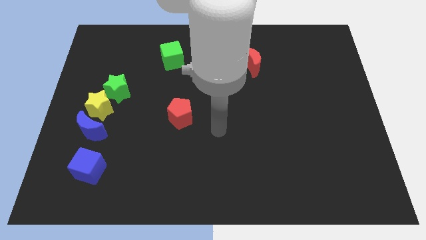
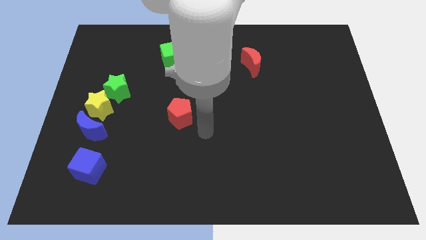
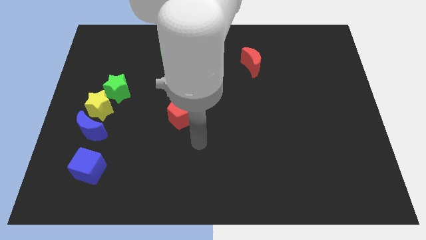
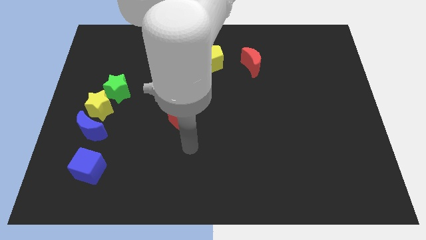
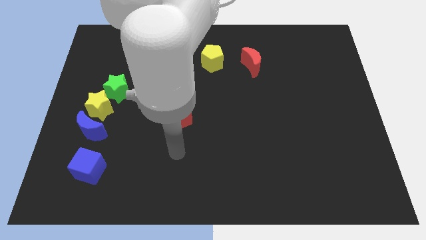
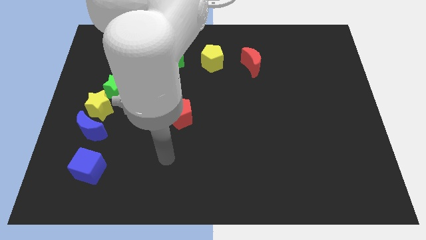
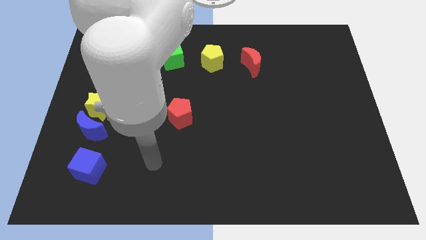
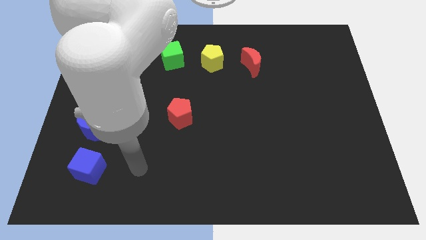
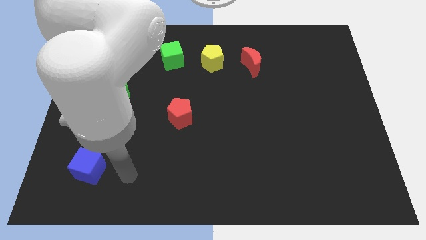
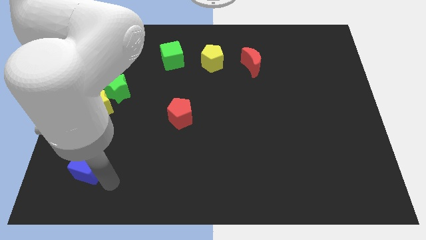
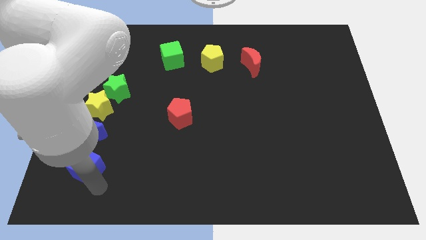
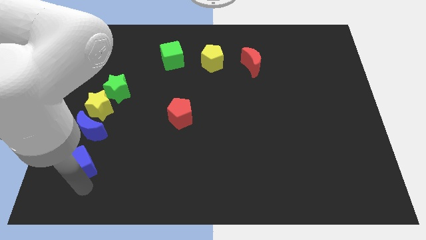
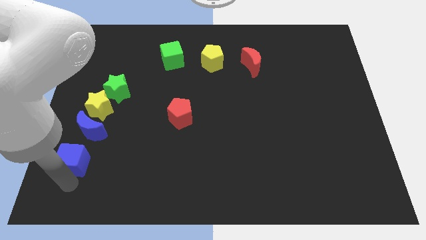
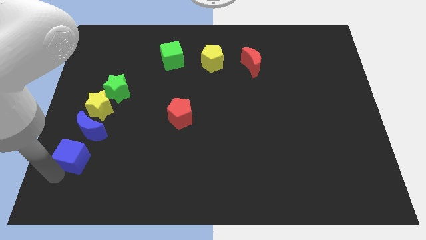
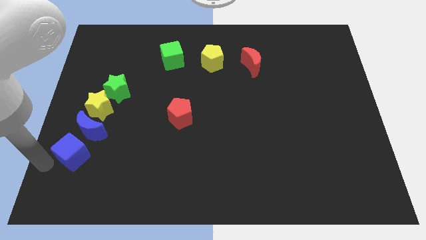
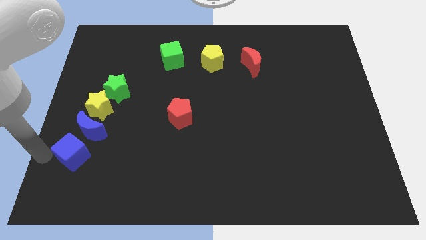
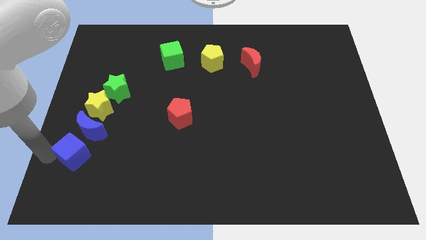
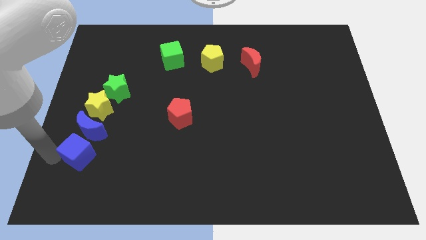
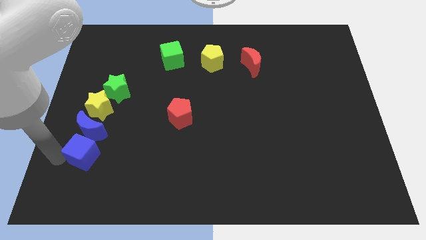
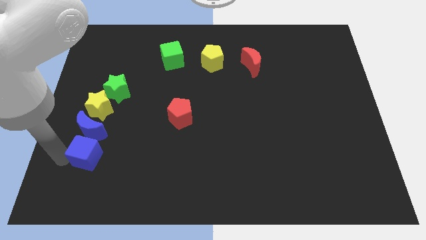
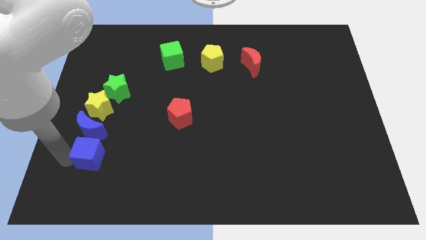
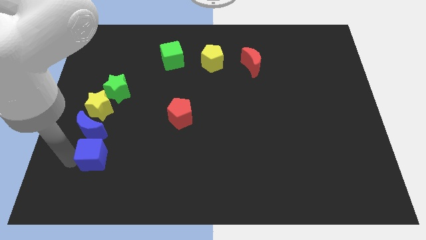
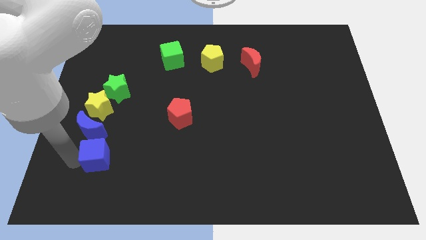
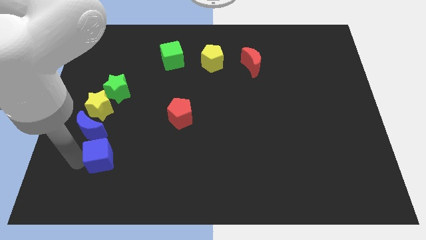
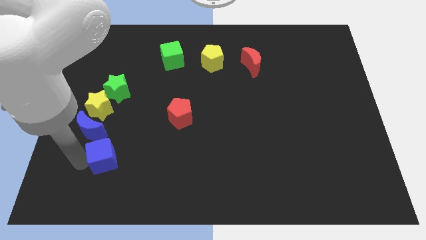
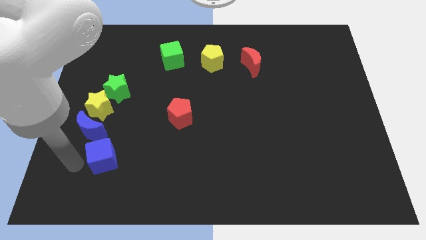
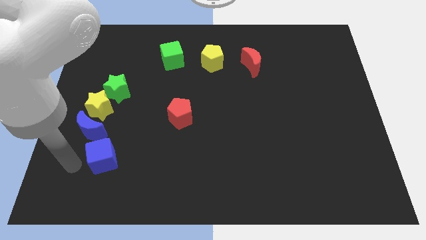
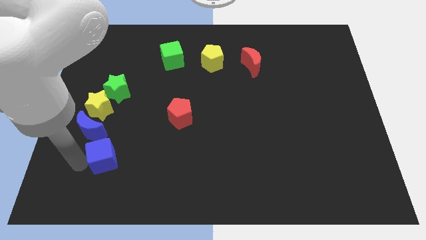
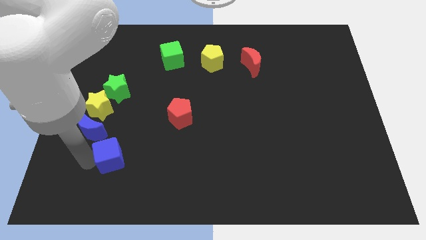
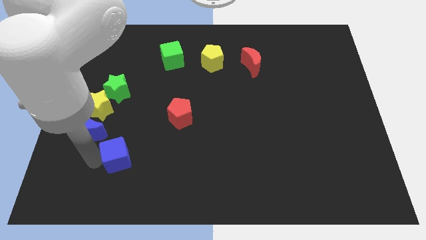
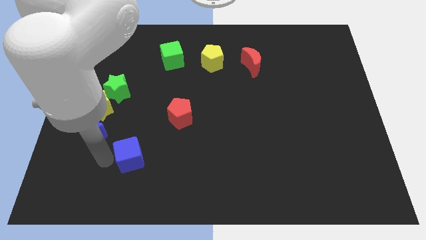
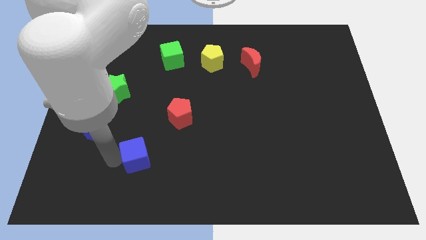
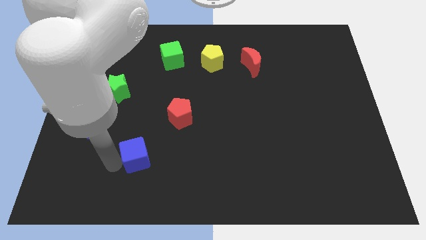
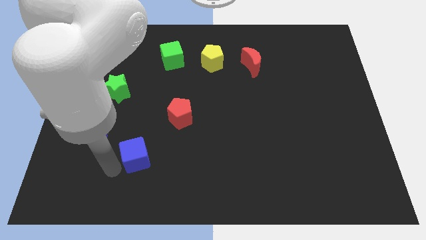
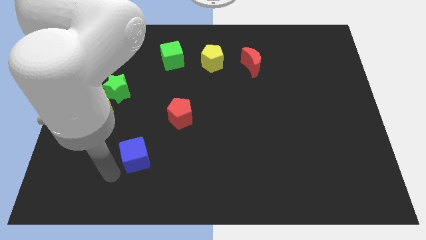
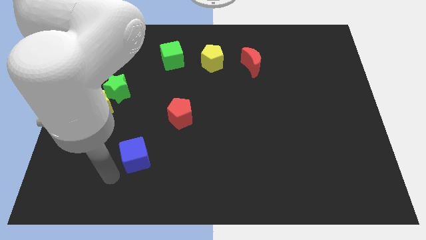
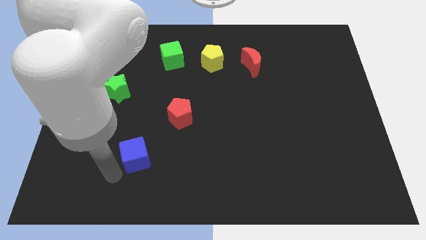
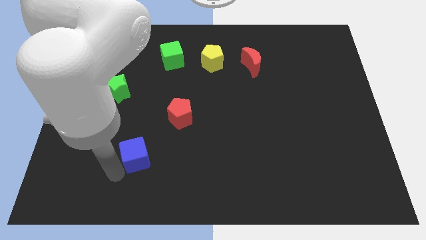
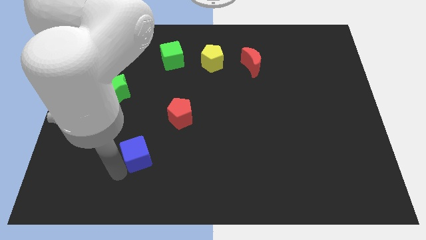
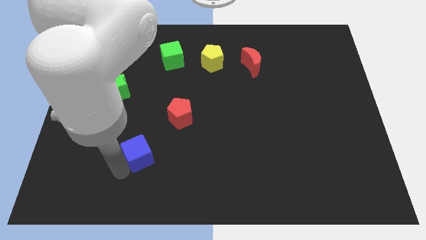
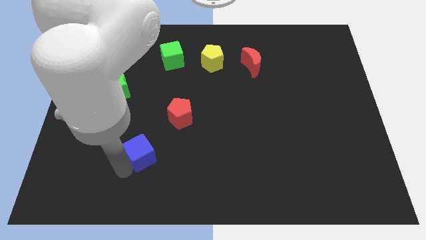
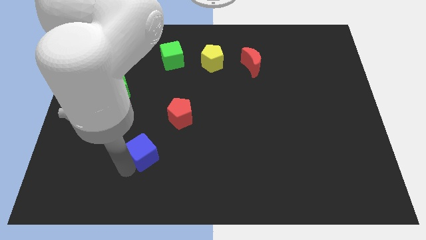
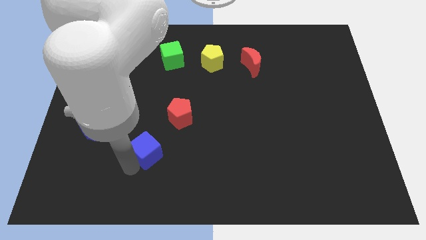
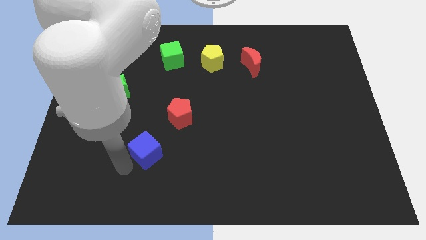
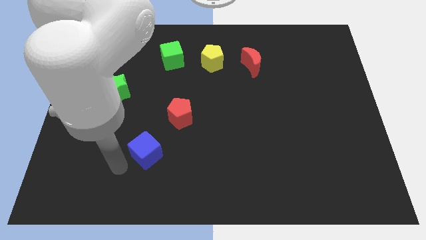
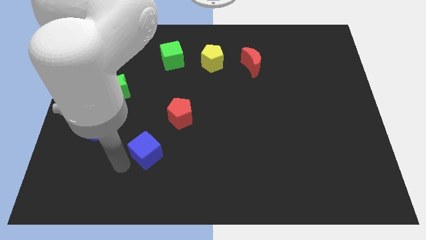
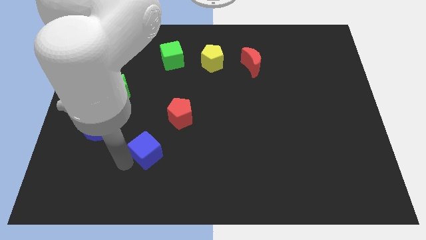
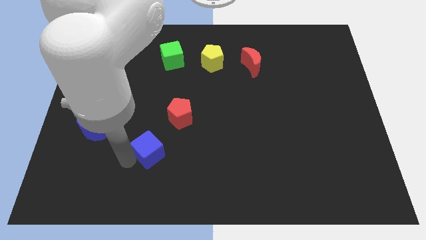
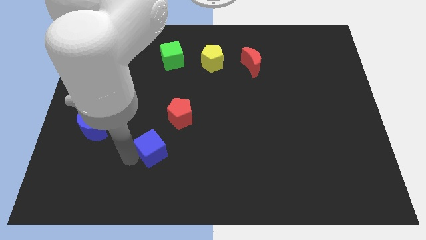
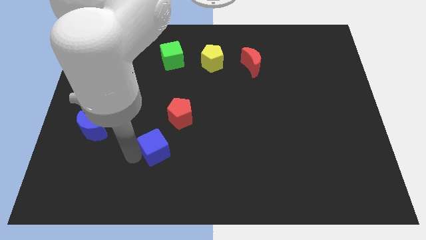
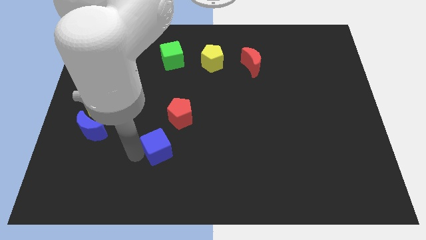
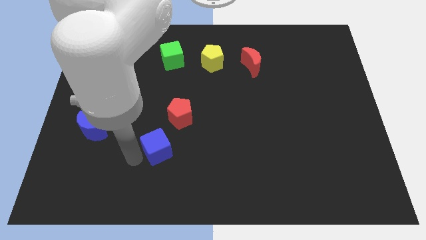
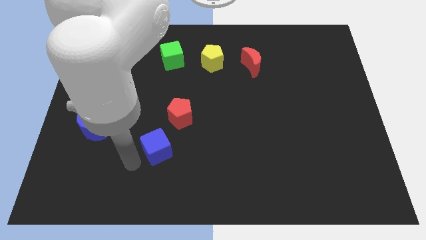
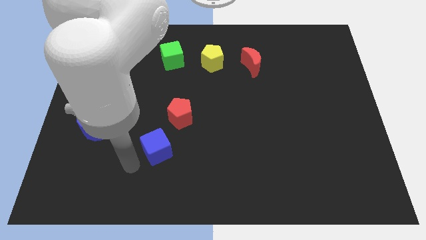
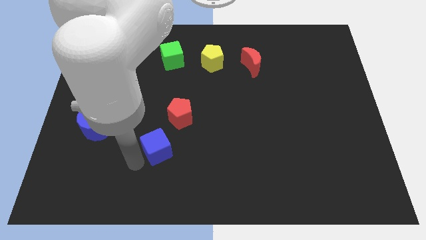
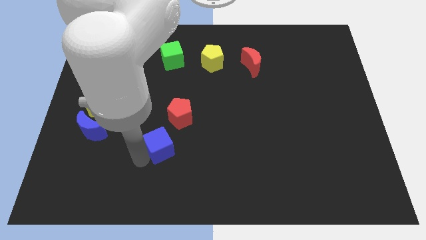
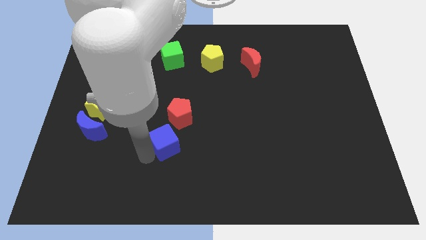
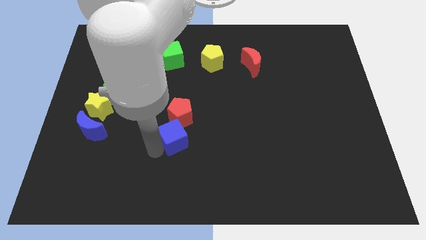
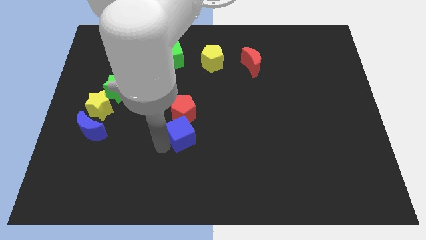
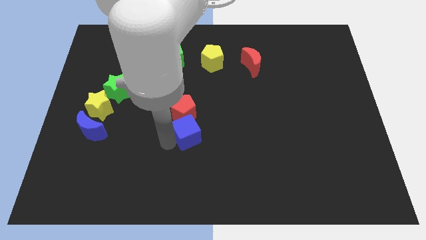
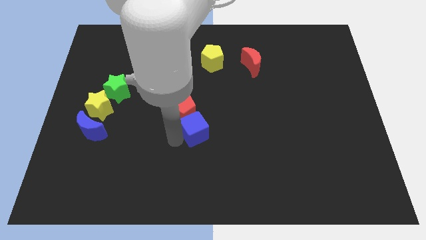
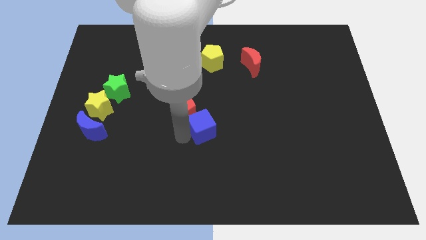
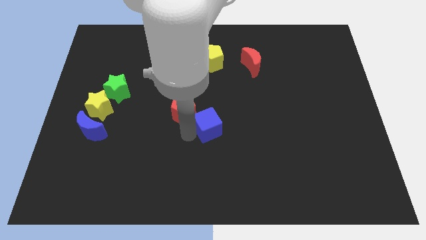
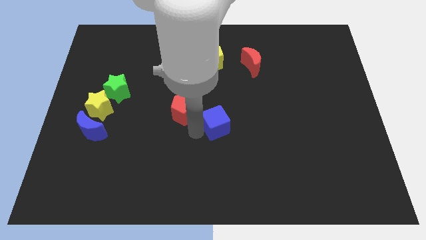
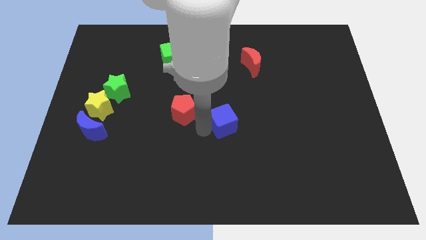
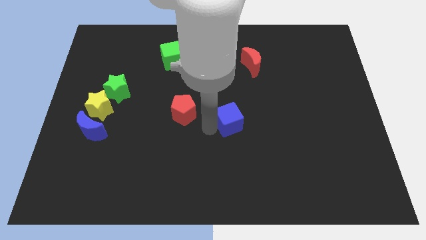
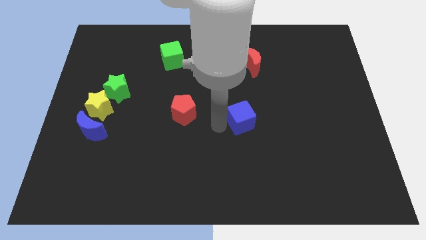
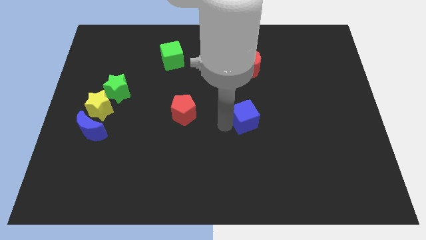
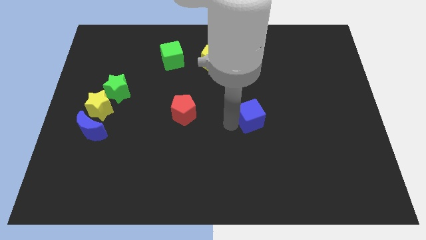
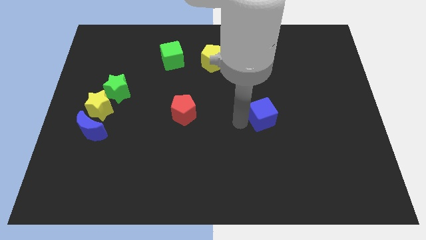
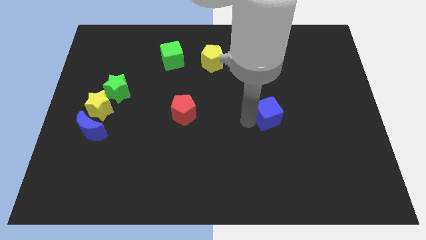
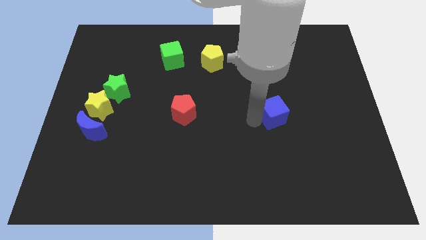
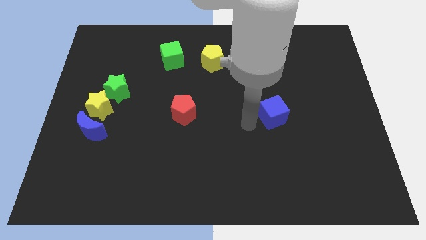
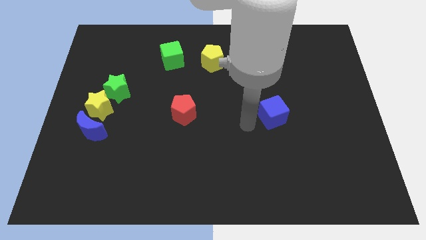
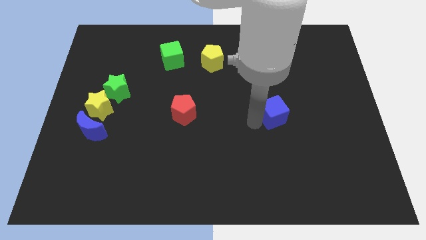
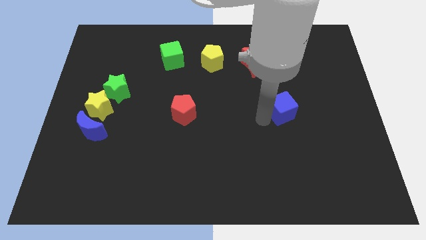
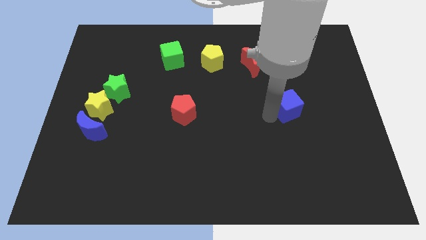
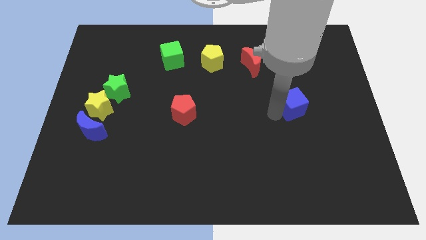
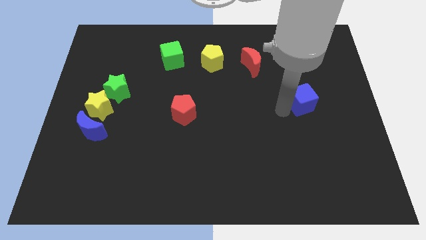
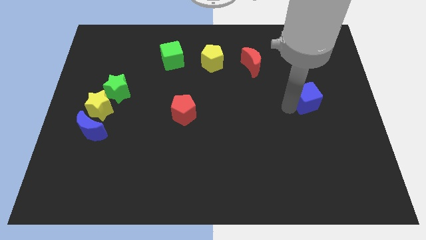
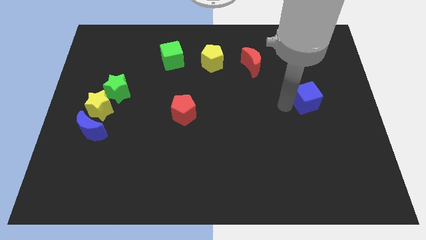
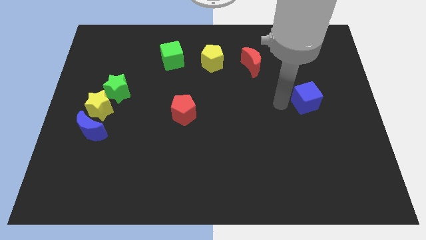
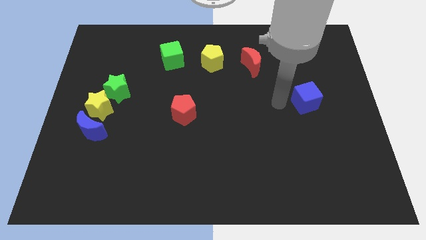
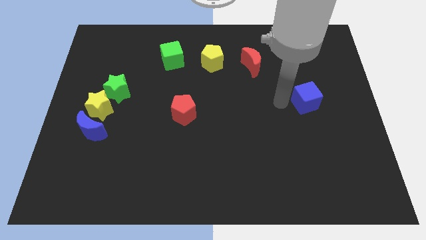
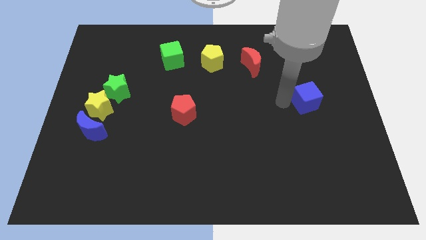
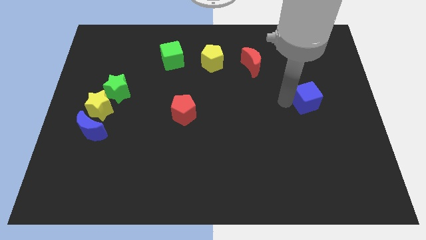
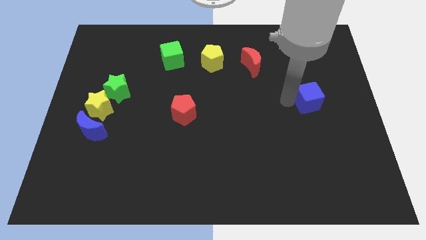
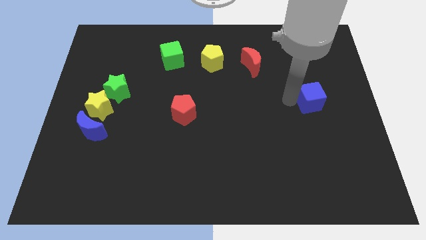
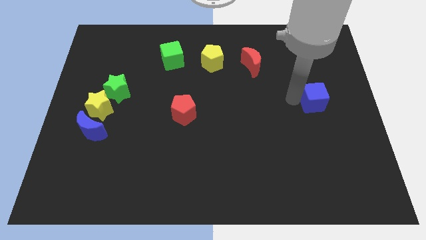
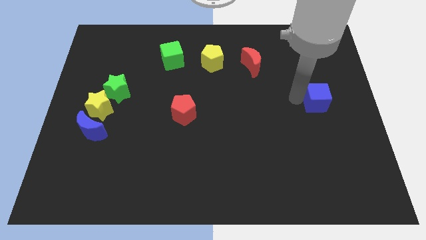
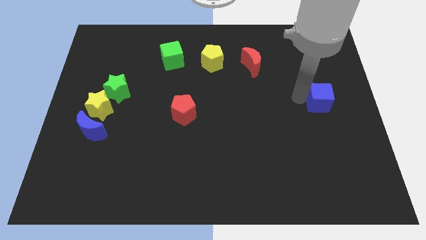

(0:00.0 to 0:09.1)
slide the blue cube to the center right
